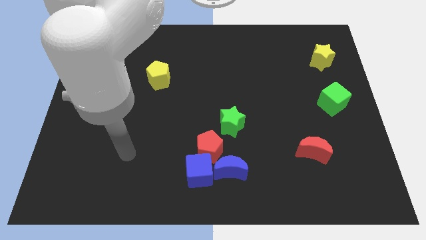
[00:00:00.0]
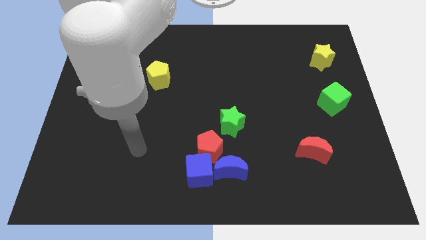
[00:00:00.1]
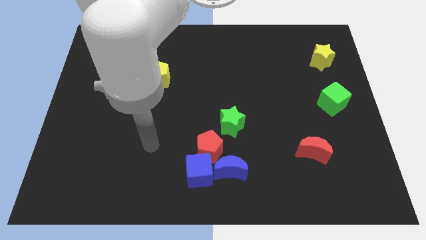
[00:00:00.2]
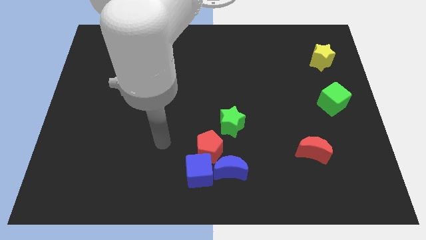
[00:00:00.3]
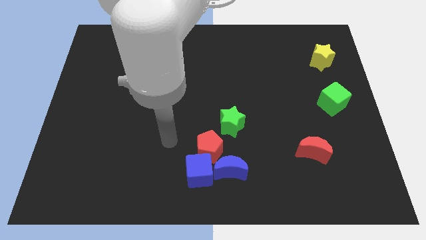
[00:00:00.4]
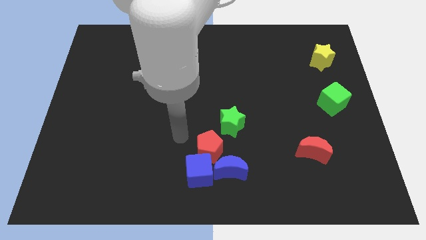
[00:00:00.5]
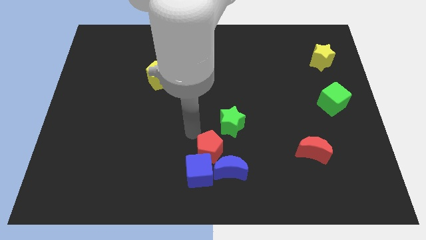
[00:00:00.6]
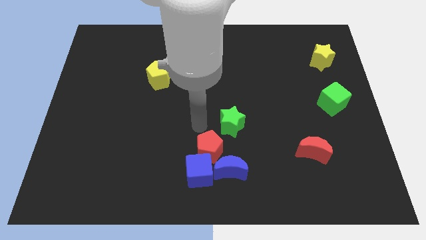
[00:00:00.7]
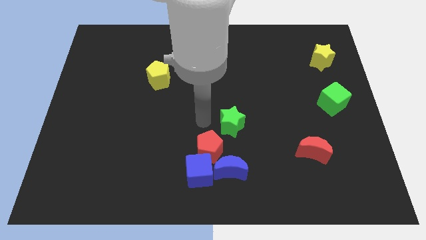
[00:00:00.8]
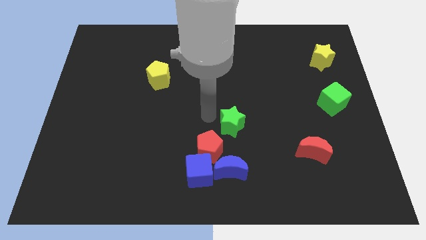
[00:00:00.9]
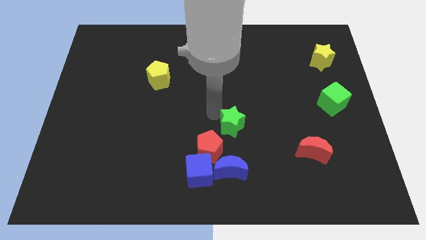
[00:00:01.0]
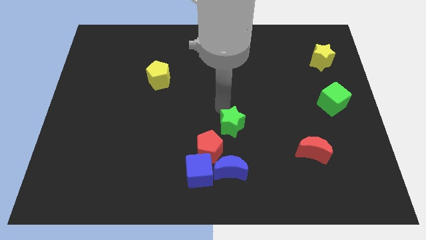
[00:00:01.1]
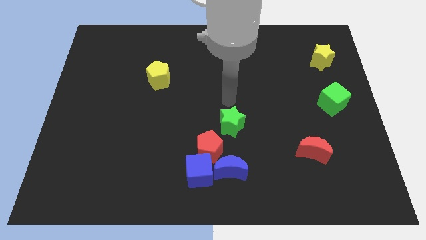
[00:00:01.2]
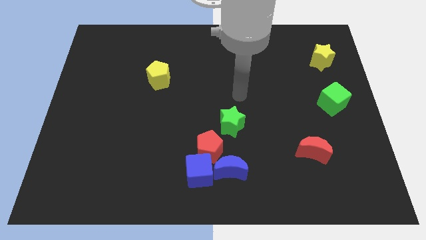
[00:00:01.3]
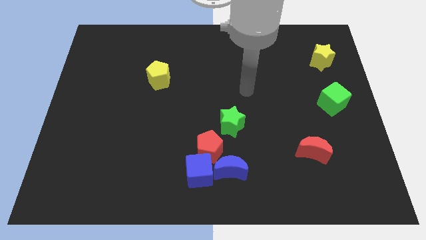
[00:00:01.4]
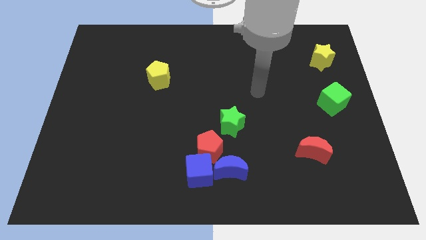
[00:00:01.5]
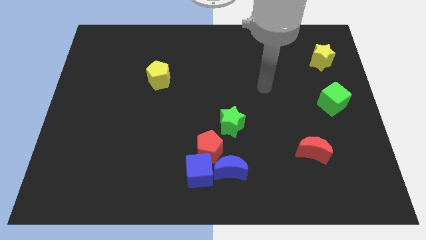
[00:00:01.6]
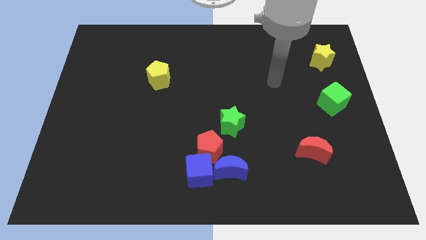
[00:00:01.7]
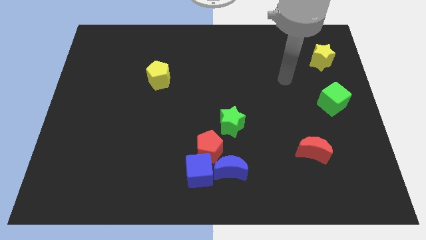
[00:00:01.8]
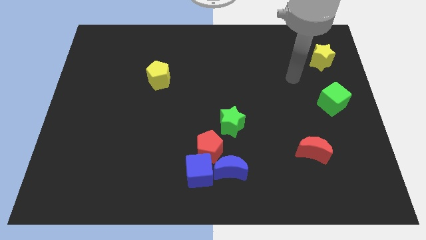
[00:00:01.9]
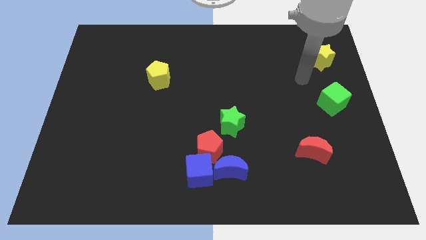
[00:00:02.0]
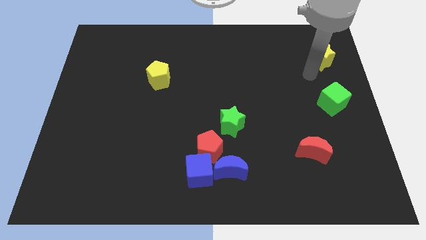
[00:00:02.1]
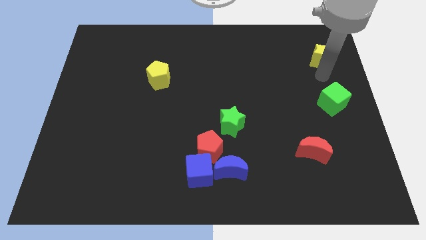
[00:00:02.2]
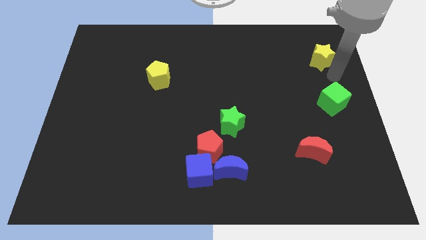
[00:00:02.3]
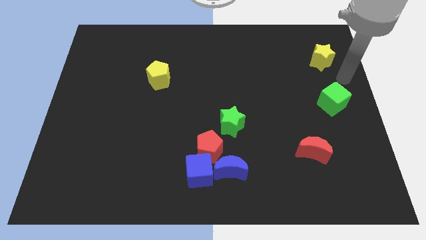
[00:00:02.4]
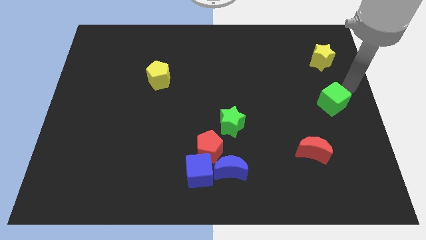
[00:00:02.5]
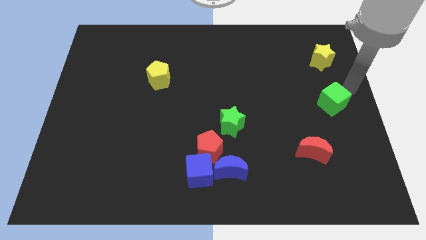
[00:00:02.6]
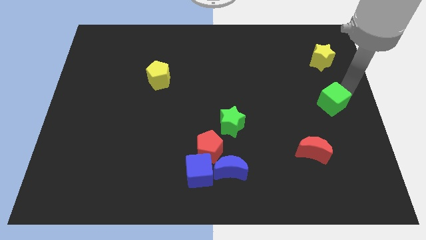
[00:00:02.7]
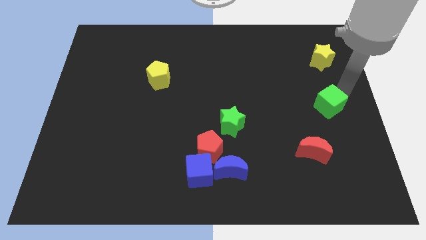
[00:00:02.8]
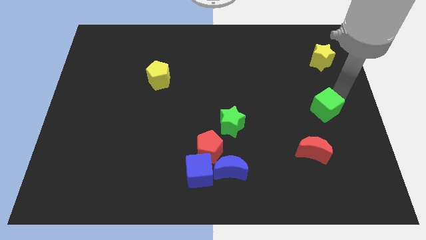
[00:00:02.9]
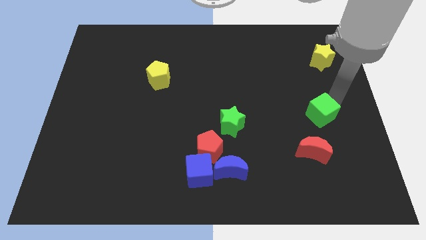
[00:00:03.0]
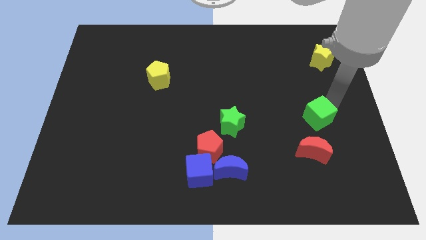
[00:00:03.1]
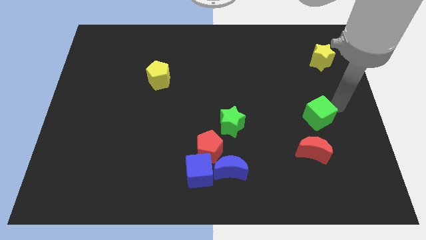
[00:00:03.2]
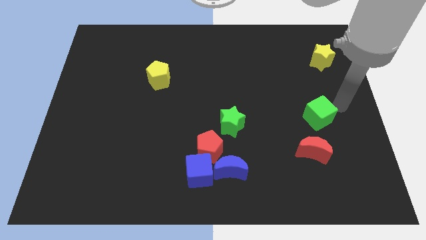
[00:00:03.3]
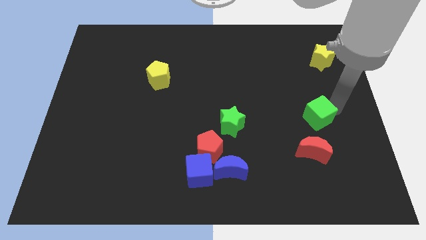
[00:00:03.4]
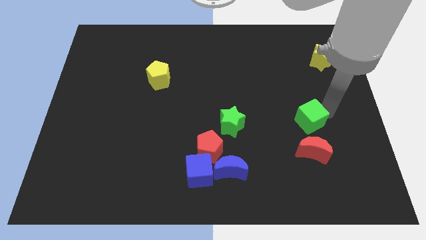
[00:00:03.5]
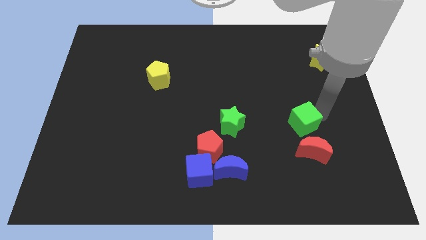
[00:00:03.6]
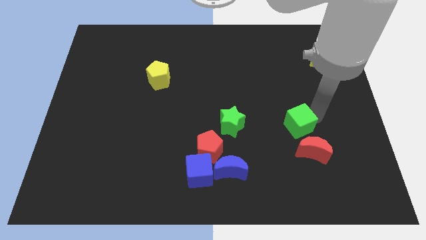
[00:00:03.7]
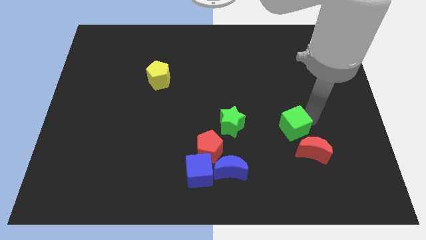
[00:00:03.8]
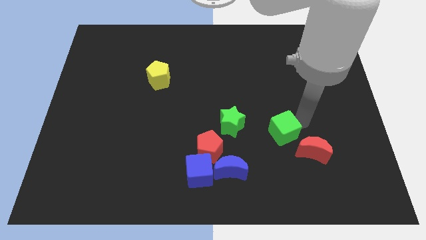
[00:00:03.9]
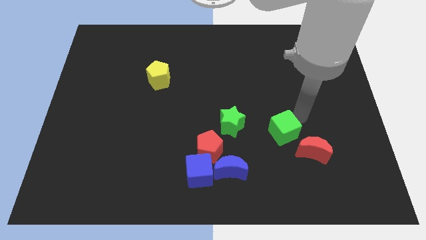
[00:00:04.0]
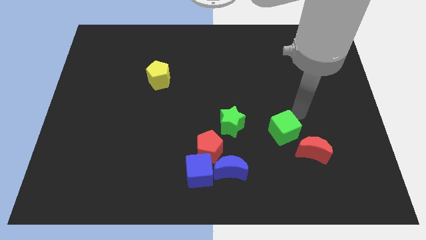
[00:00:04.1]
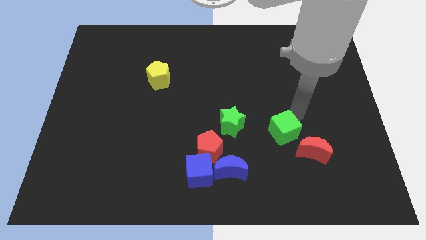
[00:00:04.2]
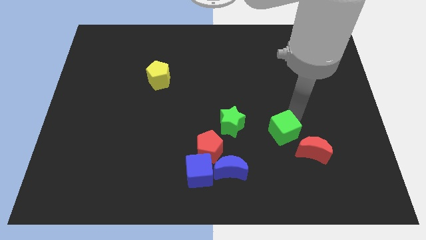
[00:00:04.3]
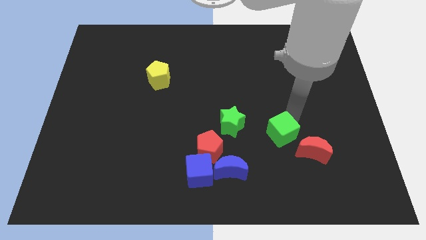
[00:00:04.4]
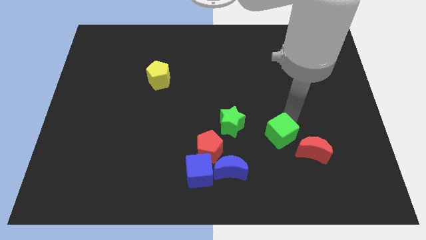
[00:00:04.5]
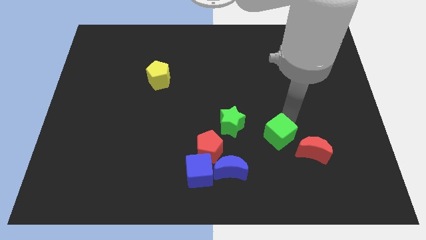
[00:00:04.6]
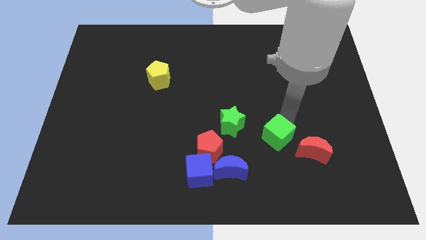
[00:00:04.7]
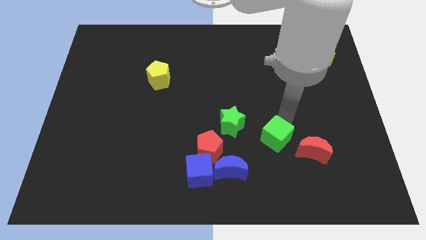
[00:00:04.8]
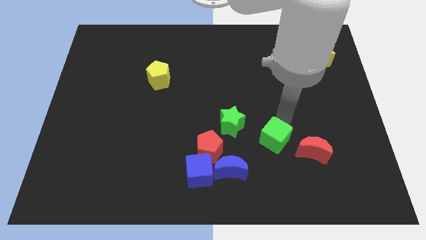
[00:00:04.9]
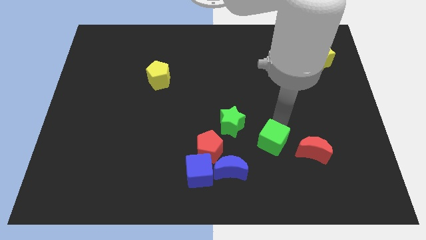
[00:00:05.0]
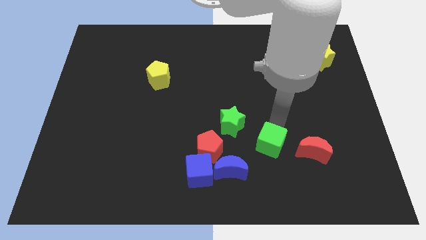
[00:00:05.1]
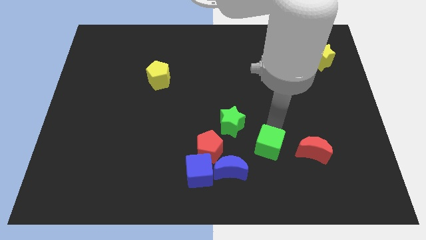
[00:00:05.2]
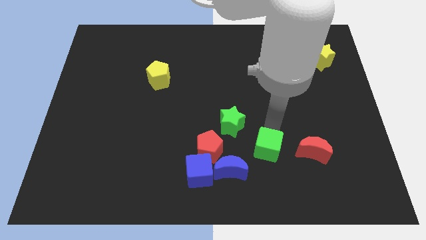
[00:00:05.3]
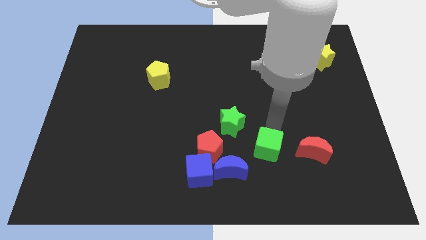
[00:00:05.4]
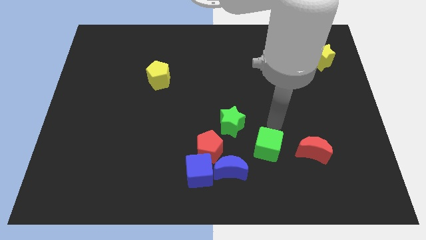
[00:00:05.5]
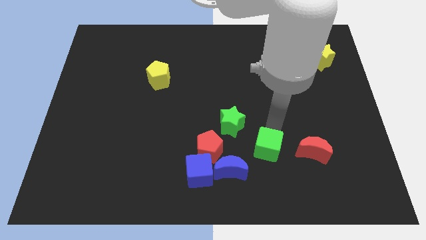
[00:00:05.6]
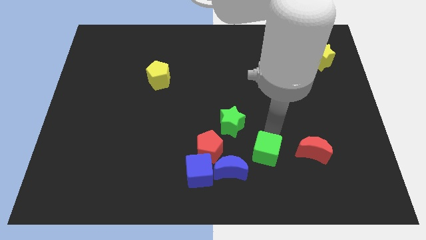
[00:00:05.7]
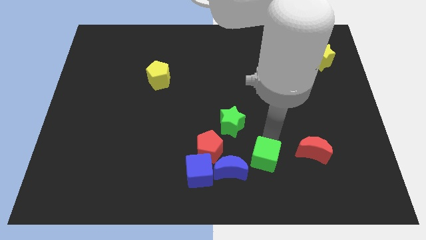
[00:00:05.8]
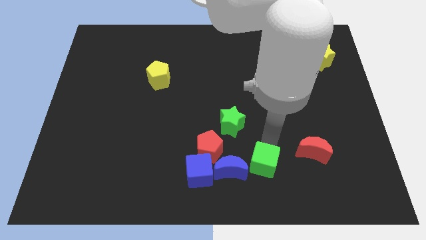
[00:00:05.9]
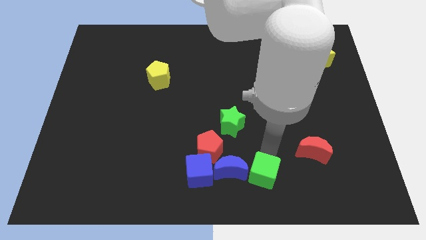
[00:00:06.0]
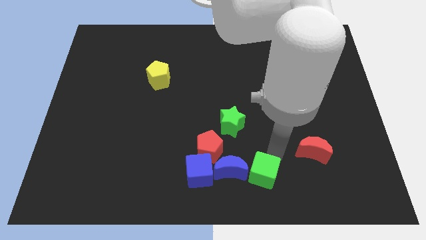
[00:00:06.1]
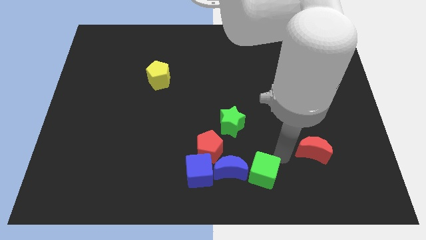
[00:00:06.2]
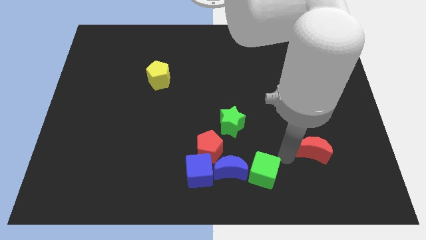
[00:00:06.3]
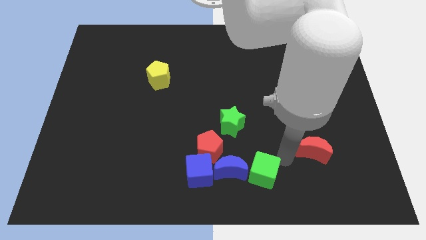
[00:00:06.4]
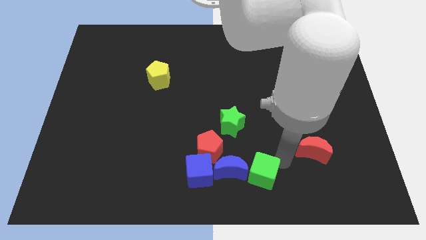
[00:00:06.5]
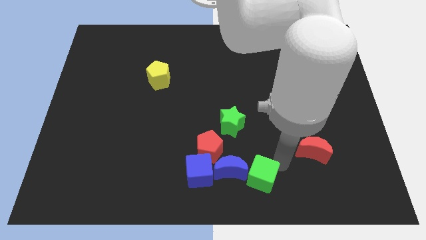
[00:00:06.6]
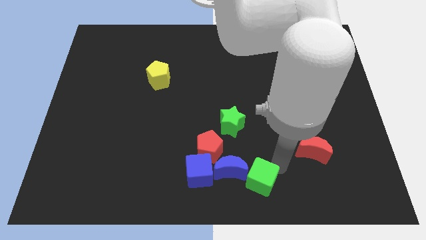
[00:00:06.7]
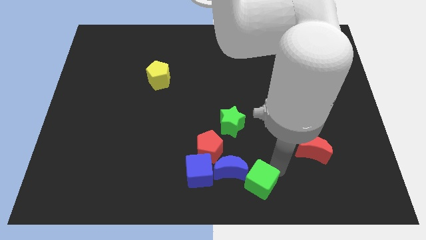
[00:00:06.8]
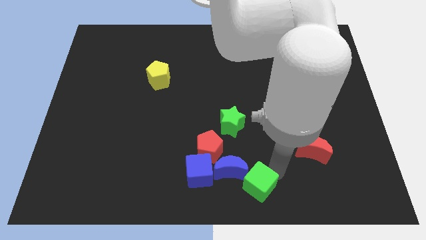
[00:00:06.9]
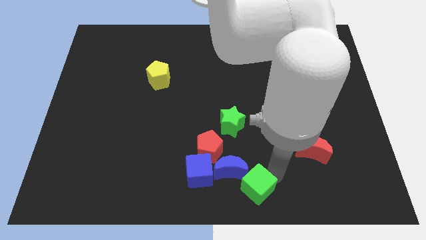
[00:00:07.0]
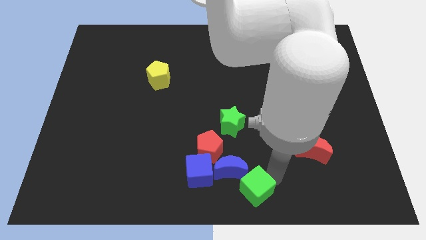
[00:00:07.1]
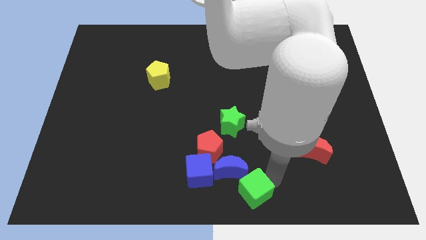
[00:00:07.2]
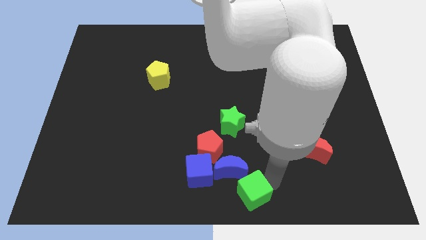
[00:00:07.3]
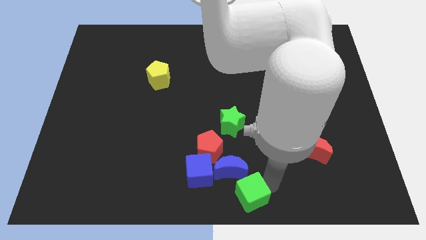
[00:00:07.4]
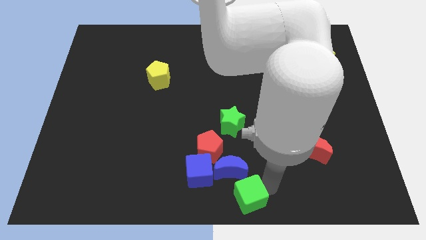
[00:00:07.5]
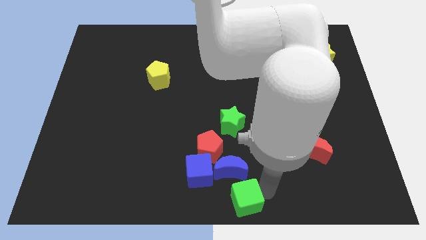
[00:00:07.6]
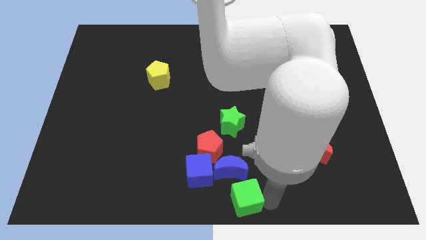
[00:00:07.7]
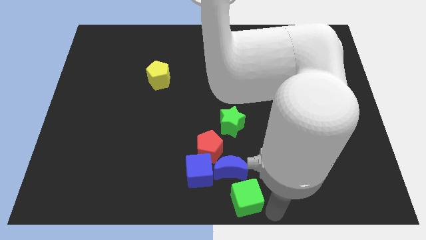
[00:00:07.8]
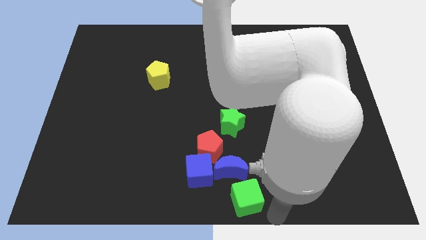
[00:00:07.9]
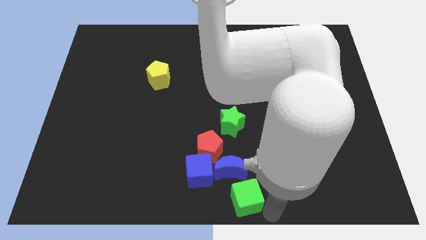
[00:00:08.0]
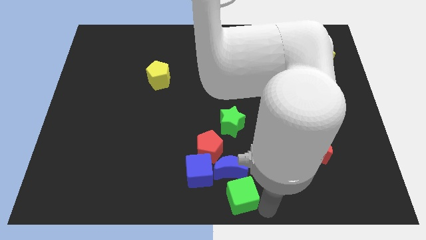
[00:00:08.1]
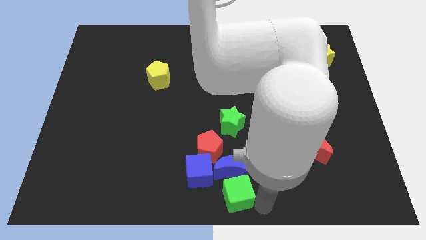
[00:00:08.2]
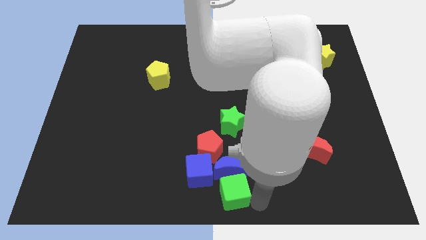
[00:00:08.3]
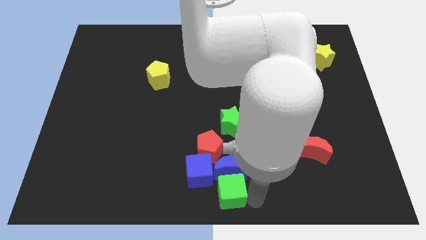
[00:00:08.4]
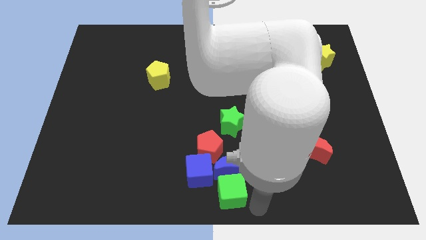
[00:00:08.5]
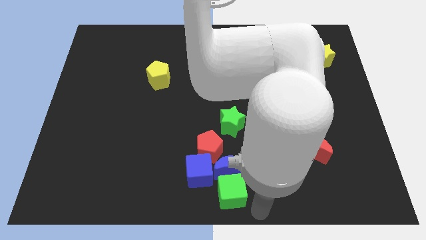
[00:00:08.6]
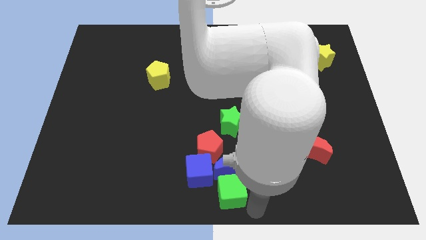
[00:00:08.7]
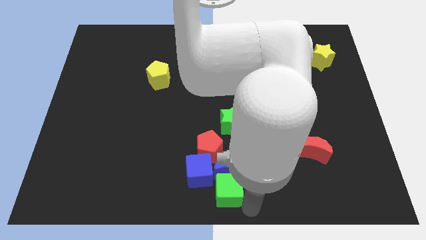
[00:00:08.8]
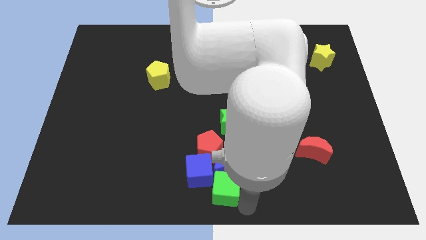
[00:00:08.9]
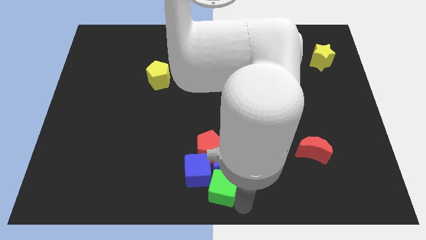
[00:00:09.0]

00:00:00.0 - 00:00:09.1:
slide the green cube to the blue cube
